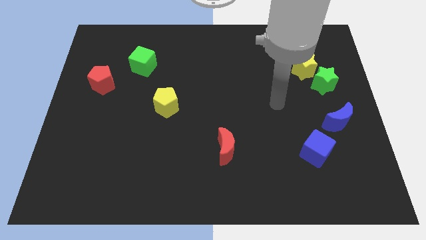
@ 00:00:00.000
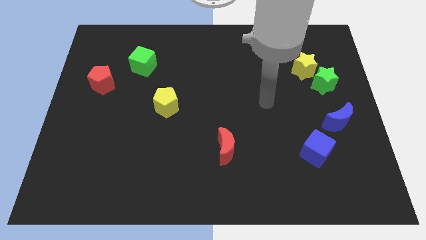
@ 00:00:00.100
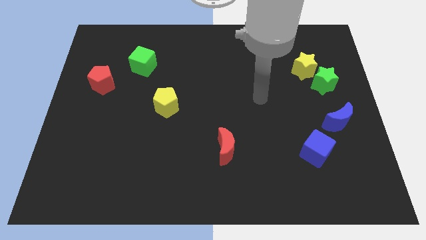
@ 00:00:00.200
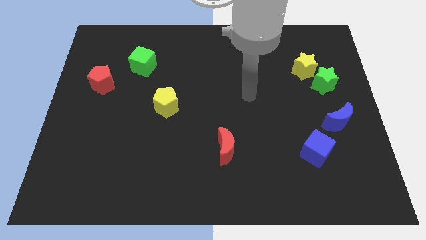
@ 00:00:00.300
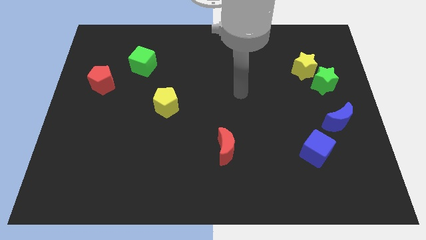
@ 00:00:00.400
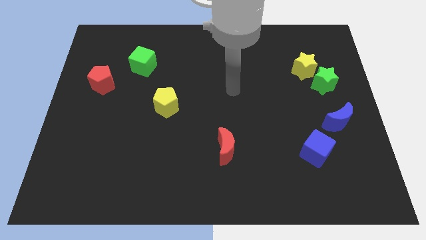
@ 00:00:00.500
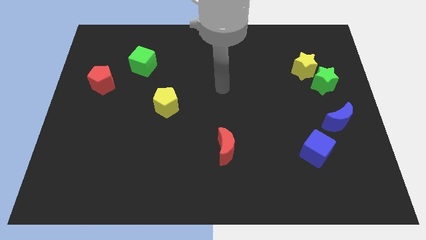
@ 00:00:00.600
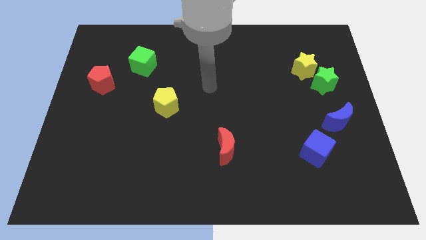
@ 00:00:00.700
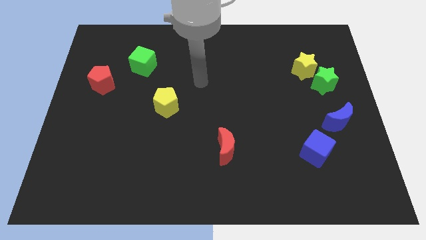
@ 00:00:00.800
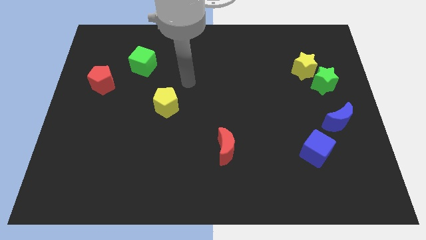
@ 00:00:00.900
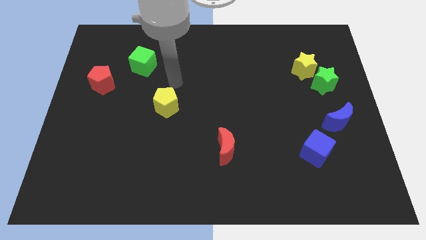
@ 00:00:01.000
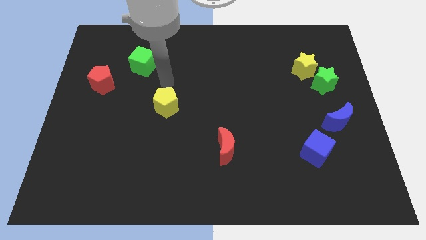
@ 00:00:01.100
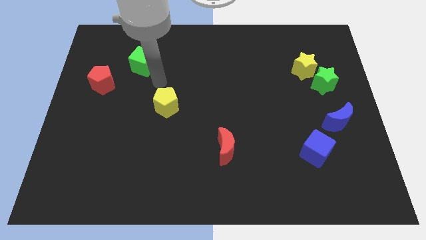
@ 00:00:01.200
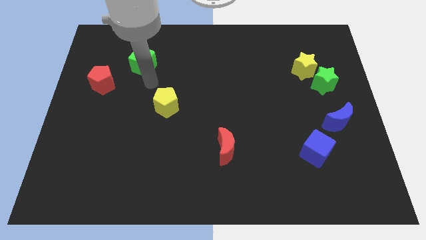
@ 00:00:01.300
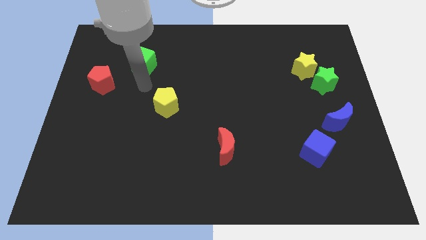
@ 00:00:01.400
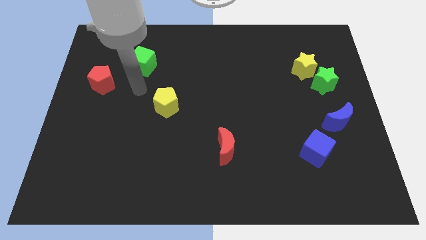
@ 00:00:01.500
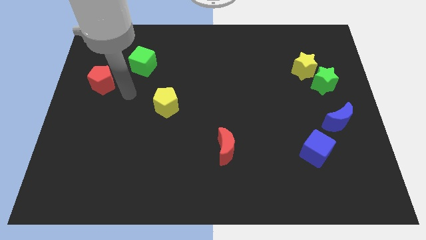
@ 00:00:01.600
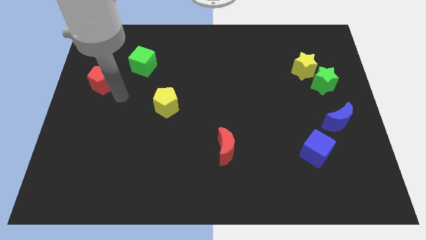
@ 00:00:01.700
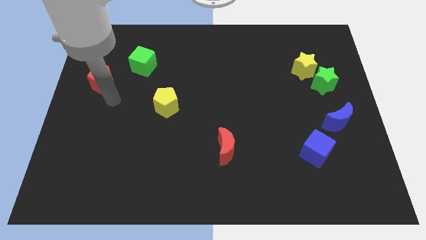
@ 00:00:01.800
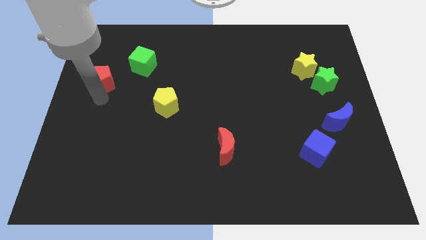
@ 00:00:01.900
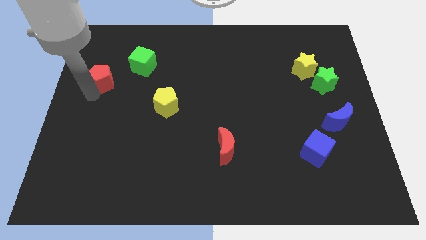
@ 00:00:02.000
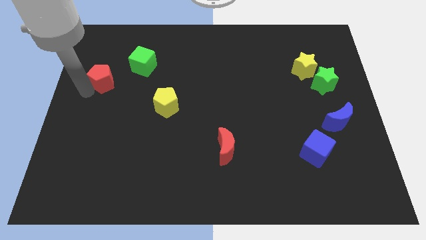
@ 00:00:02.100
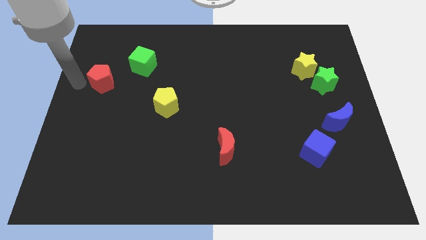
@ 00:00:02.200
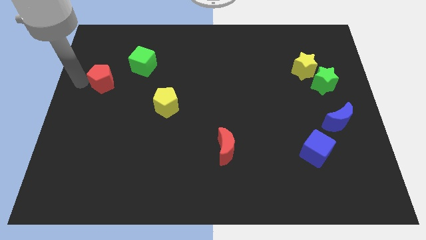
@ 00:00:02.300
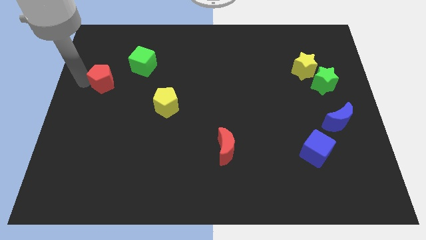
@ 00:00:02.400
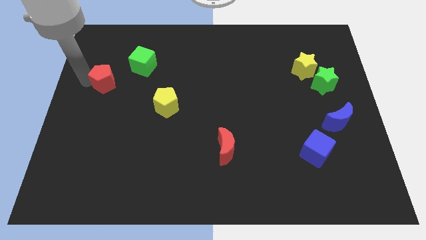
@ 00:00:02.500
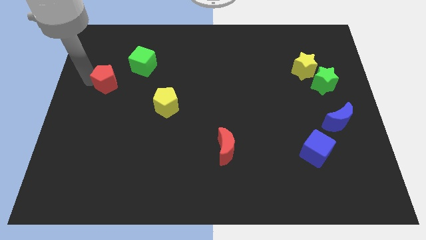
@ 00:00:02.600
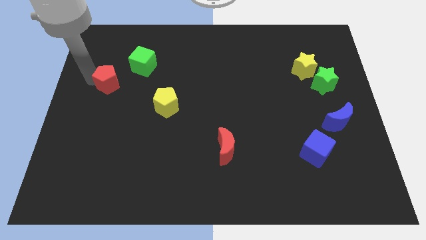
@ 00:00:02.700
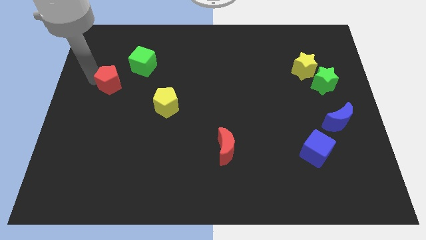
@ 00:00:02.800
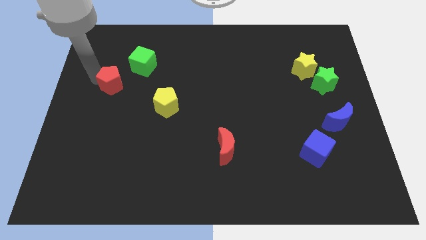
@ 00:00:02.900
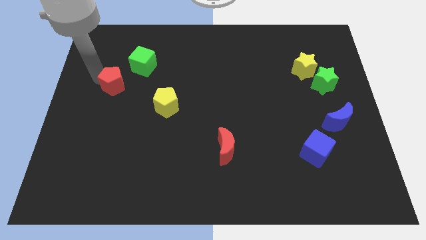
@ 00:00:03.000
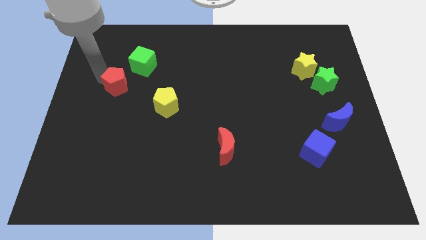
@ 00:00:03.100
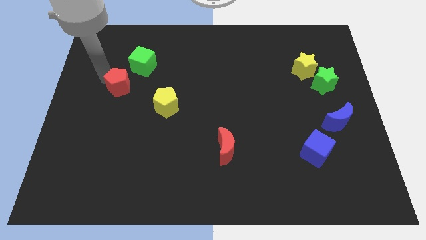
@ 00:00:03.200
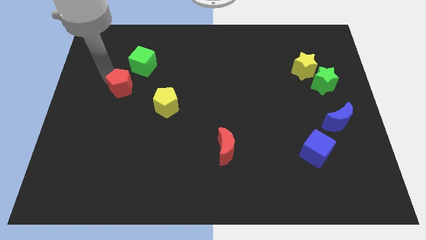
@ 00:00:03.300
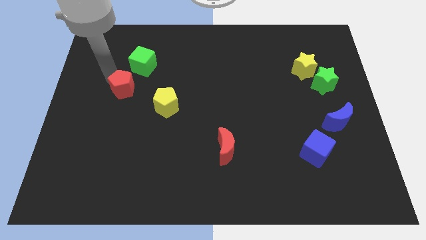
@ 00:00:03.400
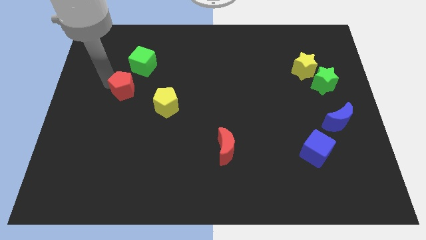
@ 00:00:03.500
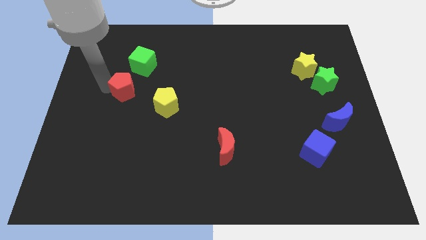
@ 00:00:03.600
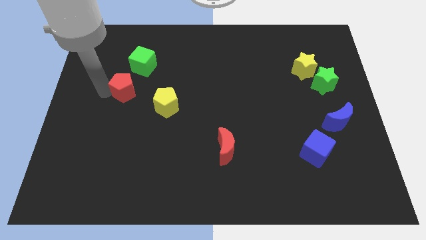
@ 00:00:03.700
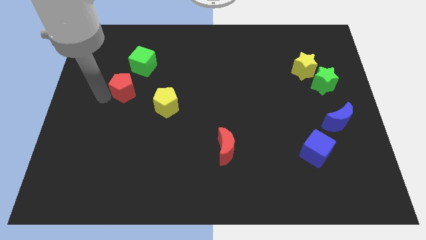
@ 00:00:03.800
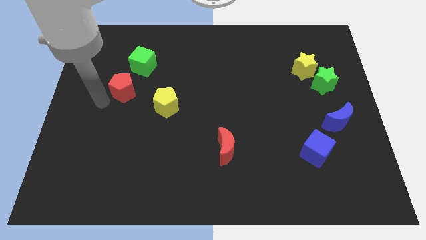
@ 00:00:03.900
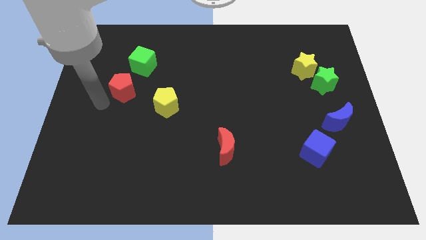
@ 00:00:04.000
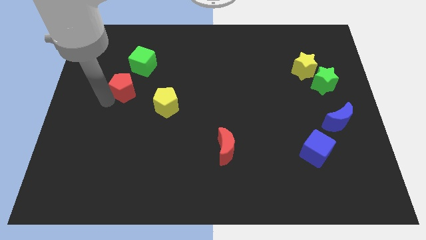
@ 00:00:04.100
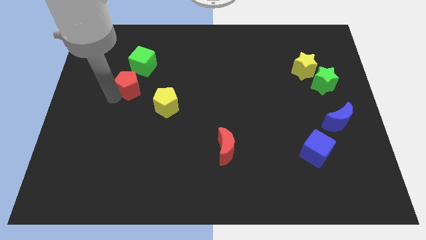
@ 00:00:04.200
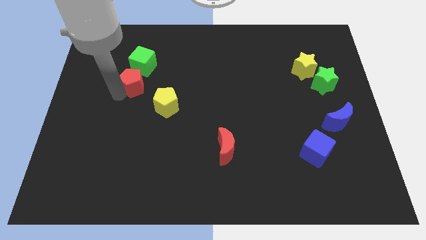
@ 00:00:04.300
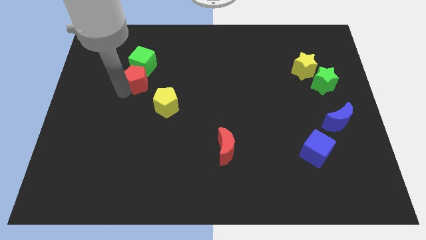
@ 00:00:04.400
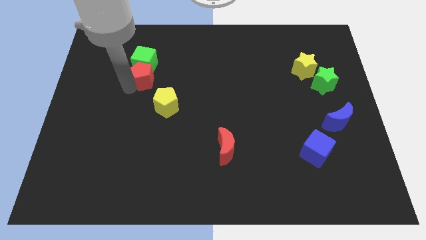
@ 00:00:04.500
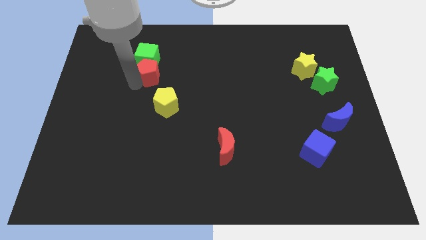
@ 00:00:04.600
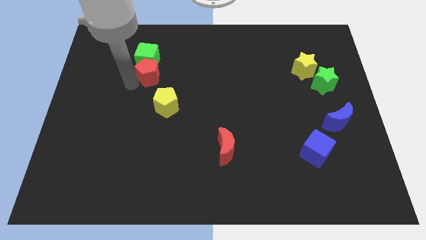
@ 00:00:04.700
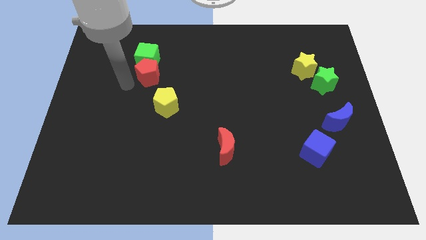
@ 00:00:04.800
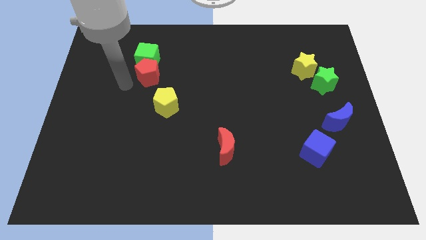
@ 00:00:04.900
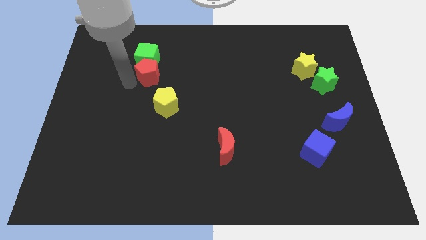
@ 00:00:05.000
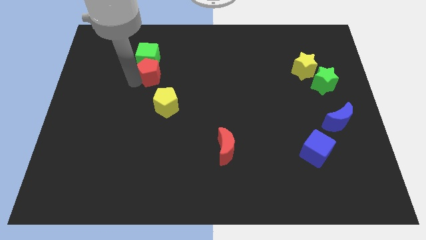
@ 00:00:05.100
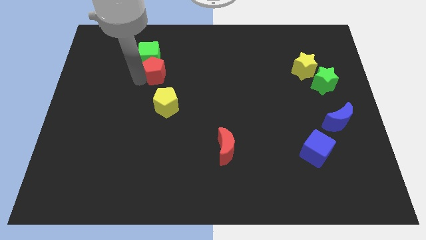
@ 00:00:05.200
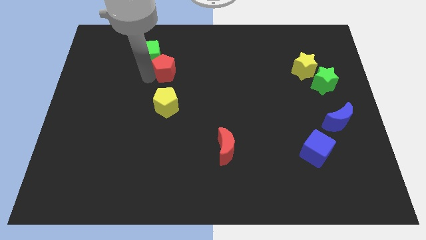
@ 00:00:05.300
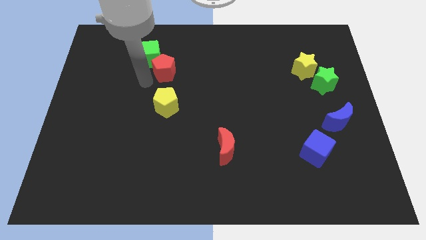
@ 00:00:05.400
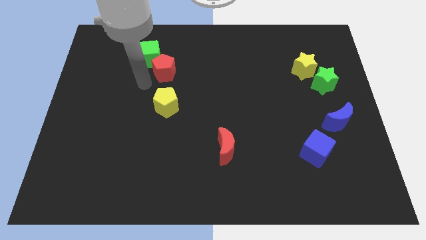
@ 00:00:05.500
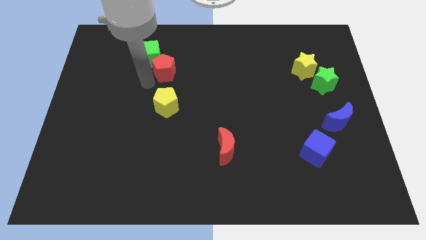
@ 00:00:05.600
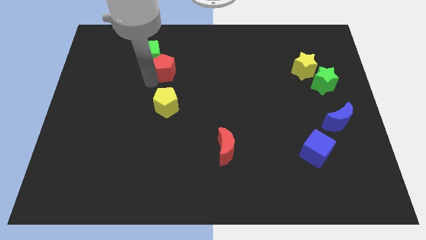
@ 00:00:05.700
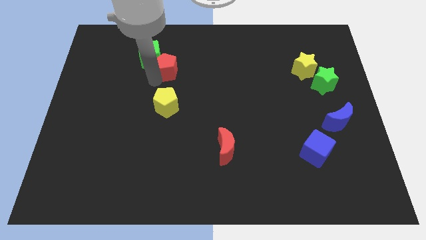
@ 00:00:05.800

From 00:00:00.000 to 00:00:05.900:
put the red pentagon just right of the green cube
